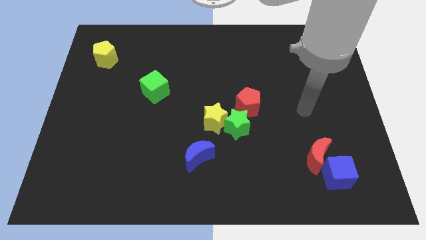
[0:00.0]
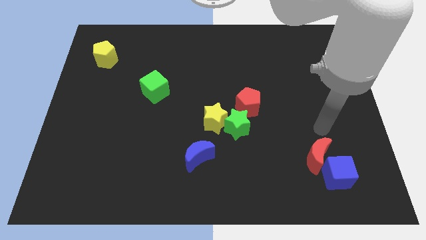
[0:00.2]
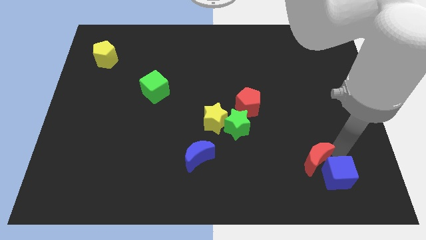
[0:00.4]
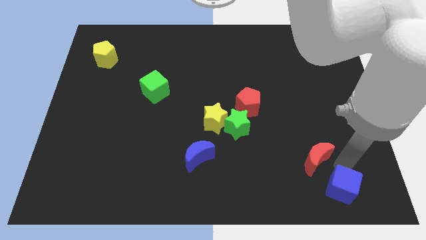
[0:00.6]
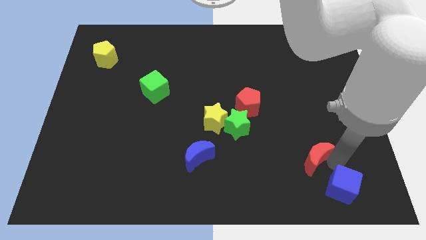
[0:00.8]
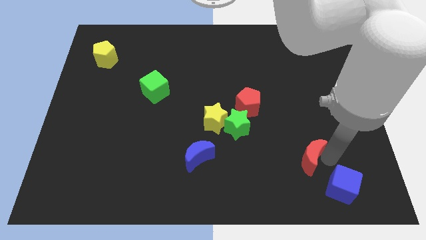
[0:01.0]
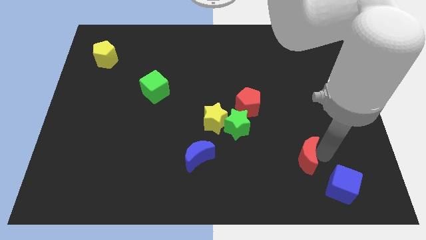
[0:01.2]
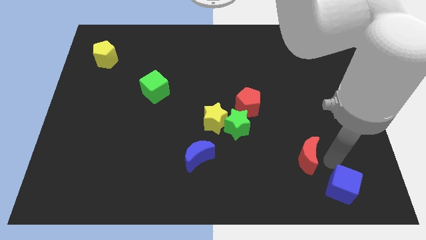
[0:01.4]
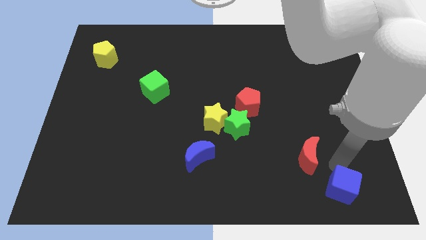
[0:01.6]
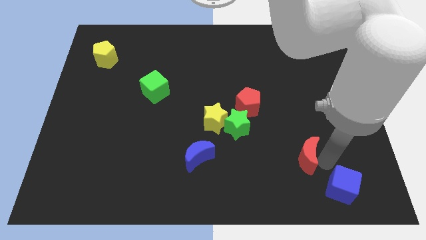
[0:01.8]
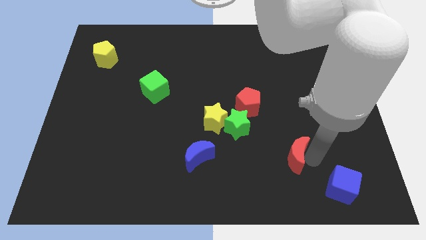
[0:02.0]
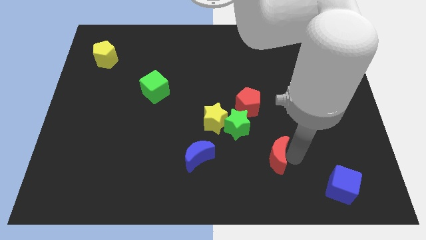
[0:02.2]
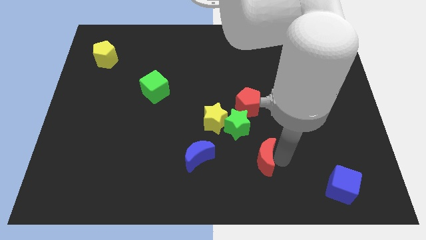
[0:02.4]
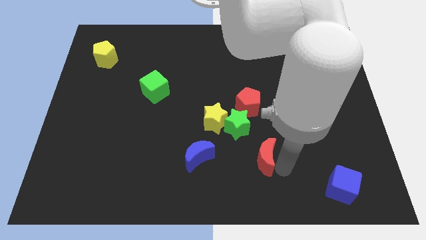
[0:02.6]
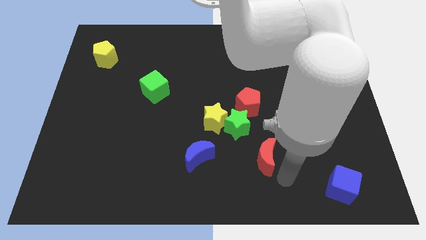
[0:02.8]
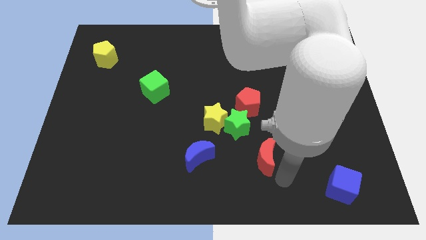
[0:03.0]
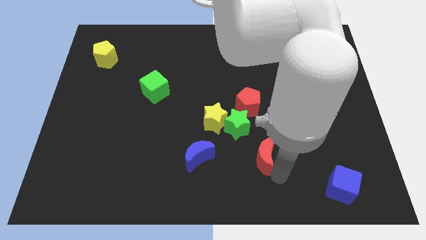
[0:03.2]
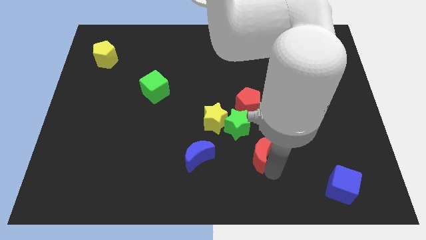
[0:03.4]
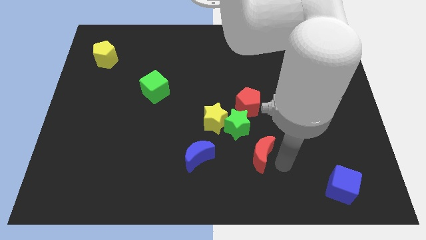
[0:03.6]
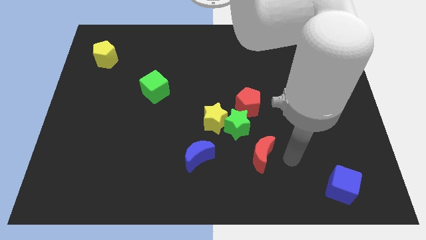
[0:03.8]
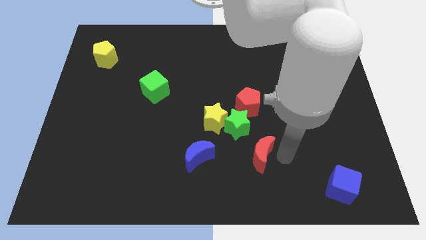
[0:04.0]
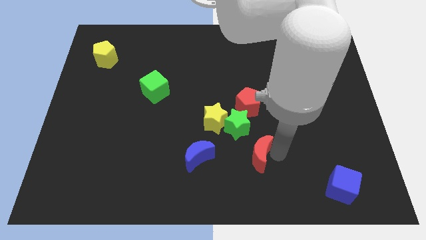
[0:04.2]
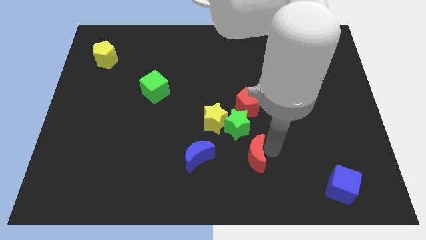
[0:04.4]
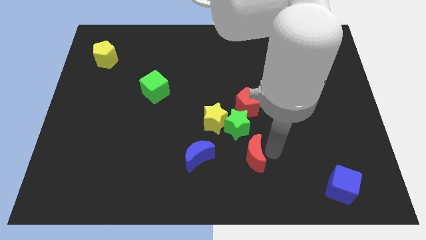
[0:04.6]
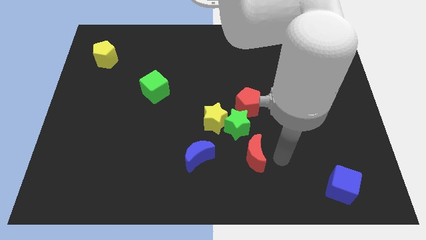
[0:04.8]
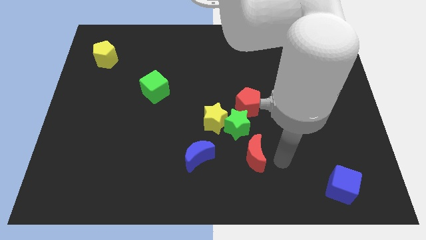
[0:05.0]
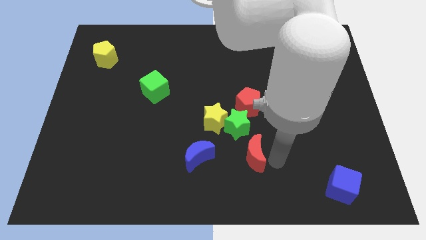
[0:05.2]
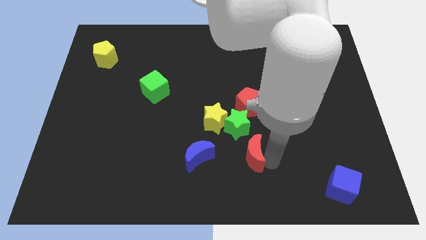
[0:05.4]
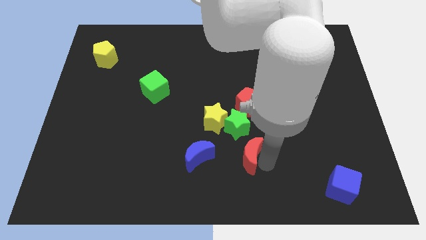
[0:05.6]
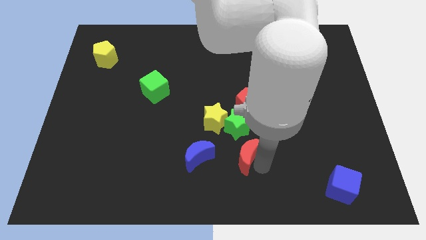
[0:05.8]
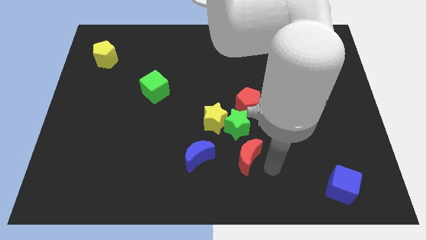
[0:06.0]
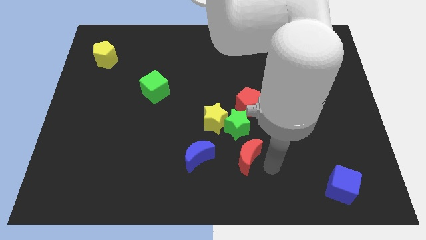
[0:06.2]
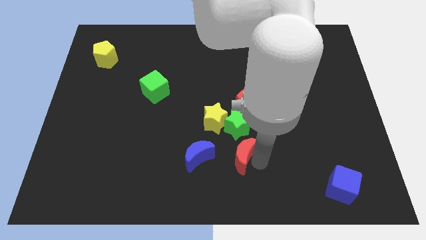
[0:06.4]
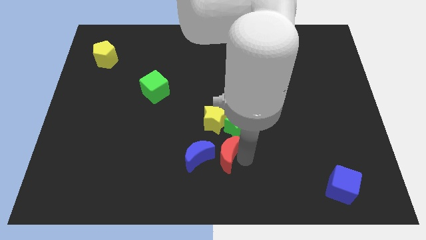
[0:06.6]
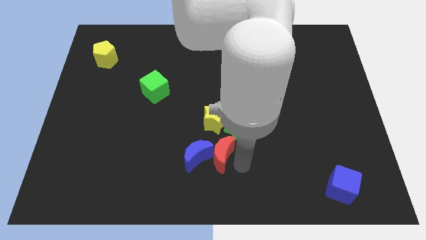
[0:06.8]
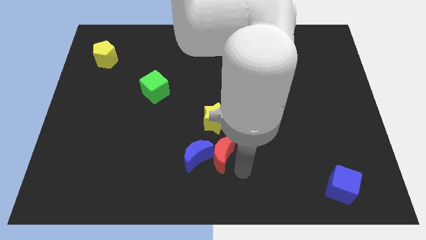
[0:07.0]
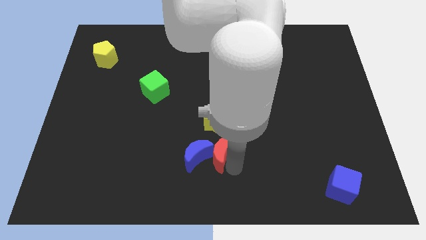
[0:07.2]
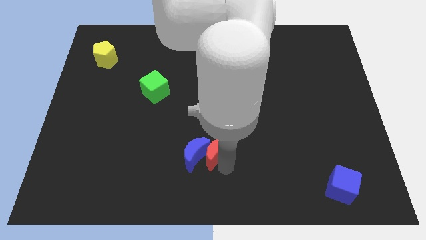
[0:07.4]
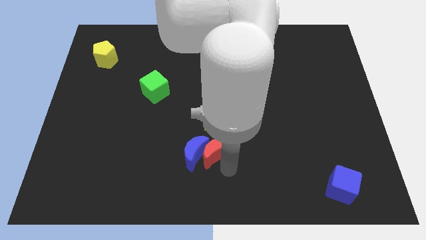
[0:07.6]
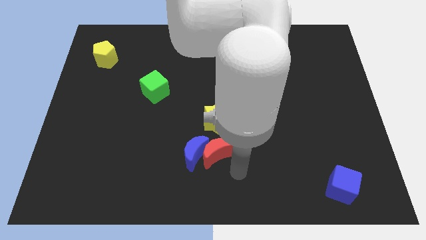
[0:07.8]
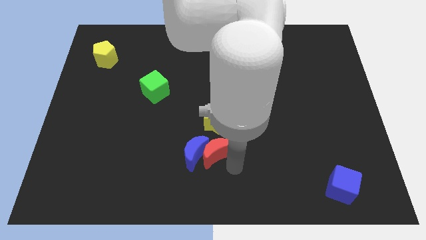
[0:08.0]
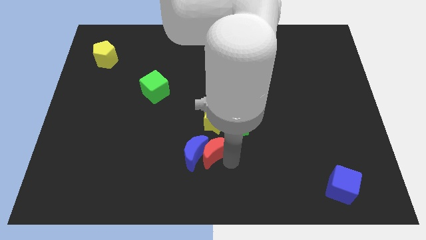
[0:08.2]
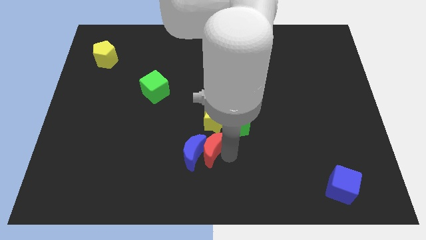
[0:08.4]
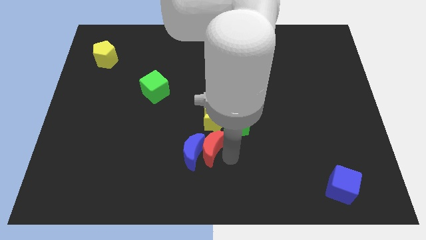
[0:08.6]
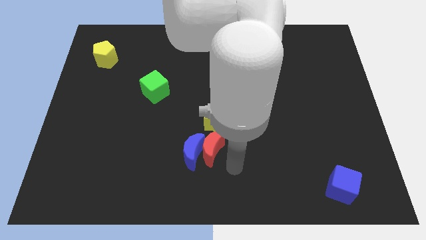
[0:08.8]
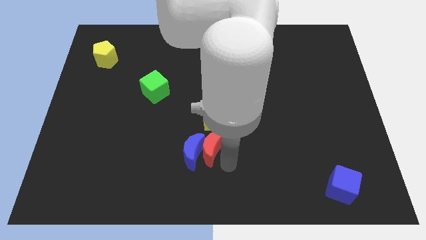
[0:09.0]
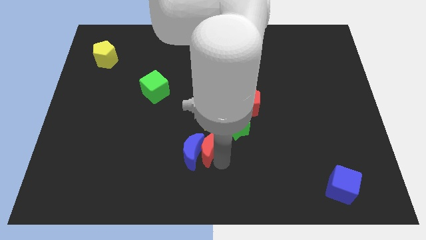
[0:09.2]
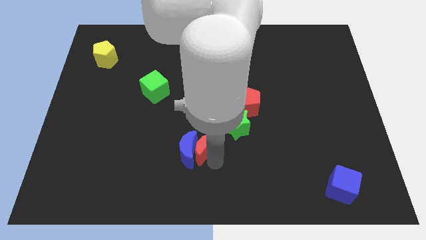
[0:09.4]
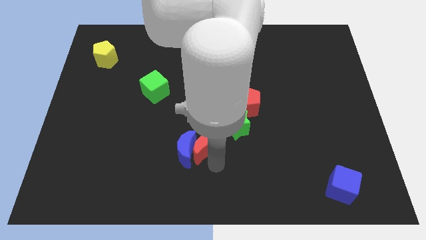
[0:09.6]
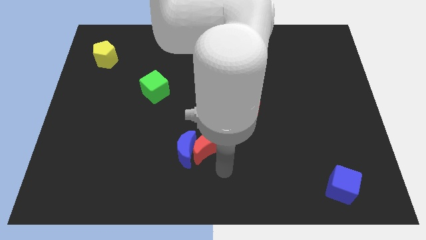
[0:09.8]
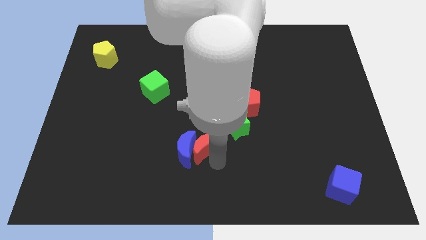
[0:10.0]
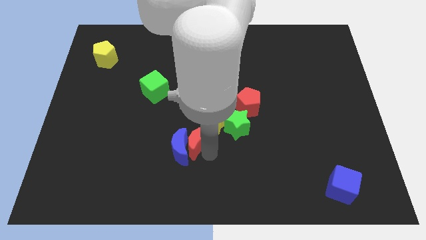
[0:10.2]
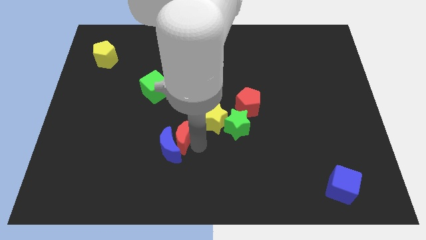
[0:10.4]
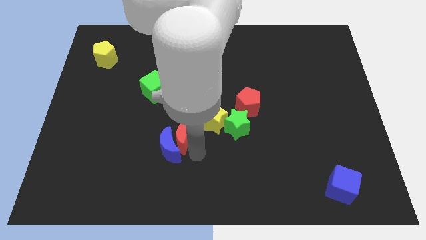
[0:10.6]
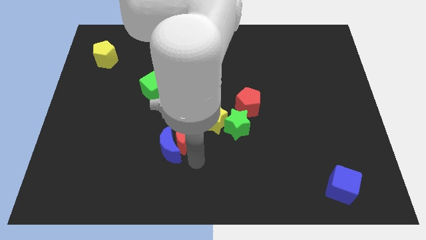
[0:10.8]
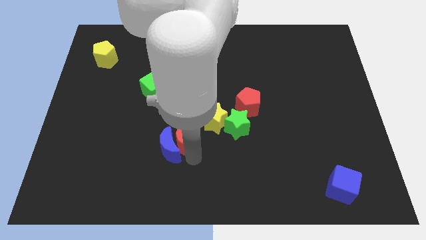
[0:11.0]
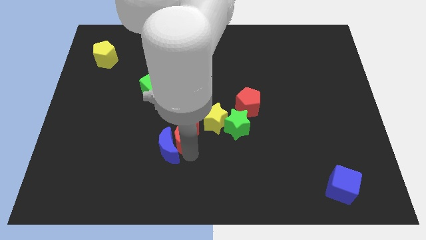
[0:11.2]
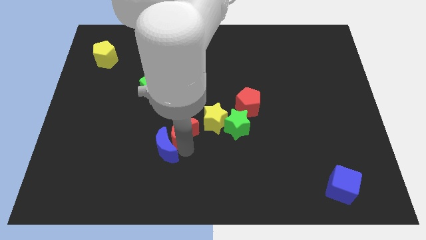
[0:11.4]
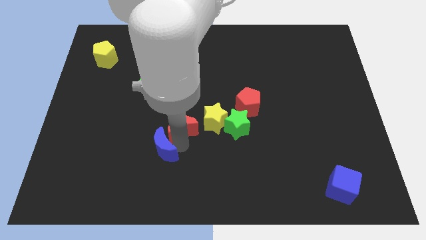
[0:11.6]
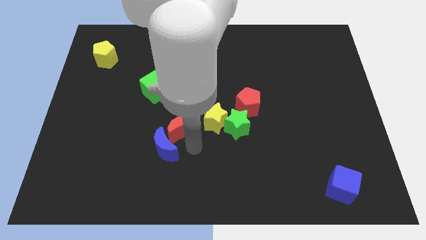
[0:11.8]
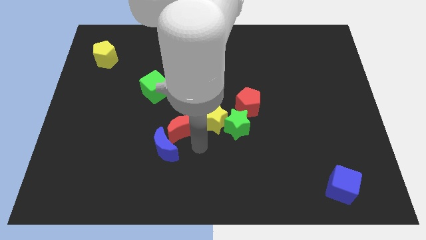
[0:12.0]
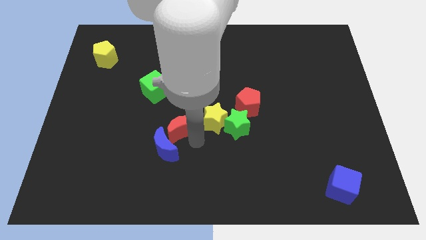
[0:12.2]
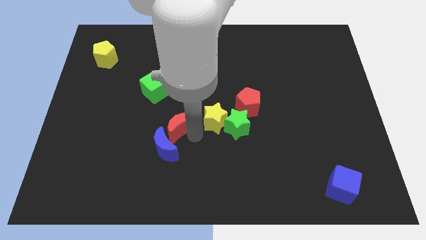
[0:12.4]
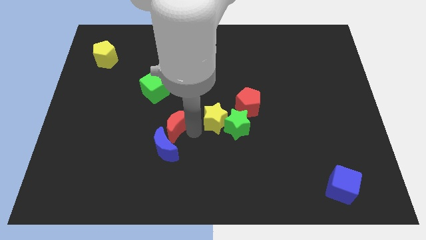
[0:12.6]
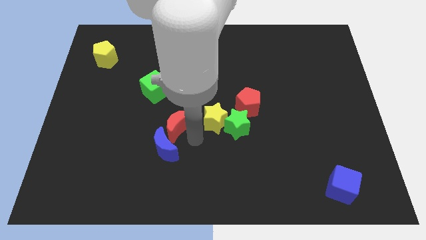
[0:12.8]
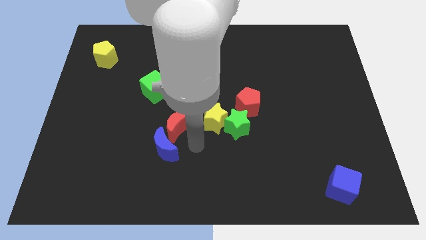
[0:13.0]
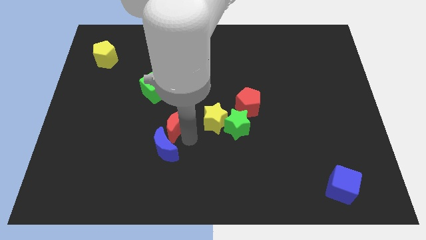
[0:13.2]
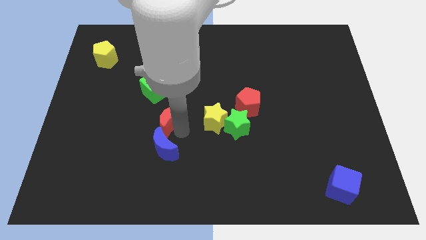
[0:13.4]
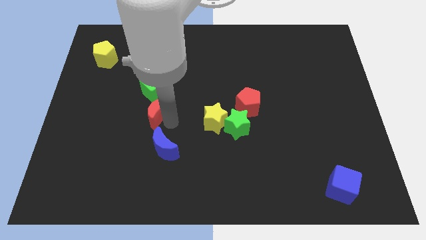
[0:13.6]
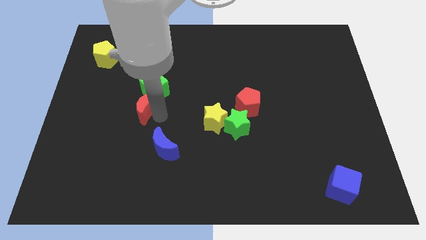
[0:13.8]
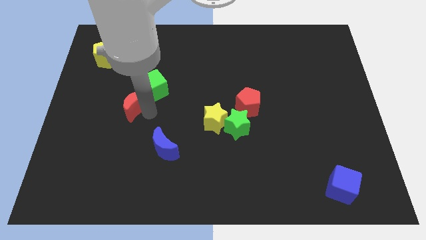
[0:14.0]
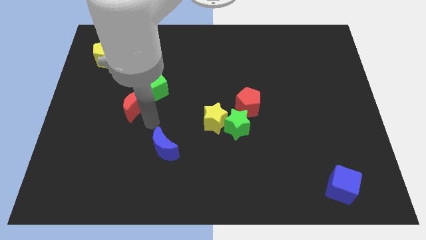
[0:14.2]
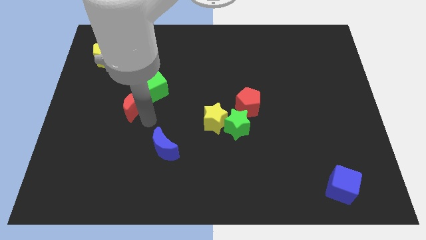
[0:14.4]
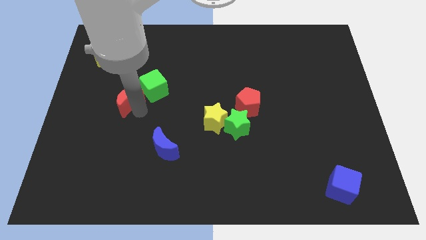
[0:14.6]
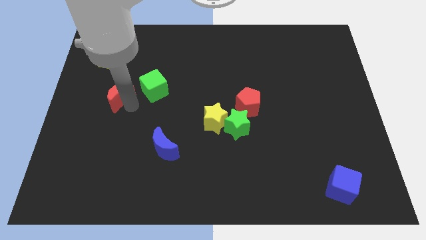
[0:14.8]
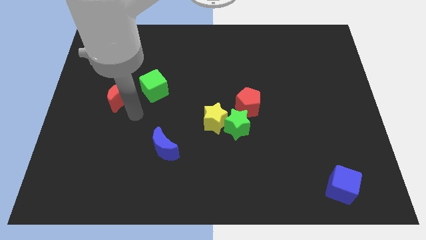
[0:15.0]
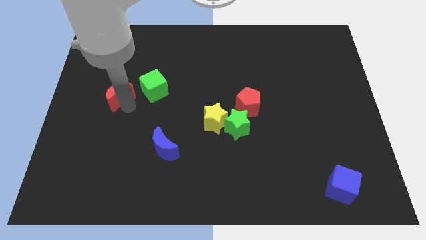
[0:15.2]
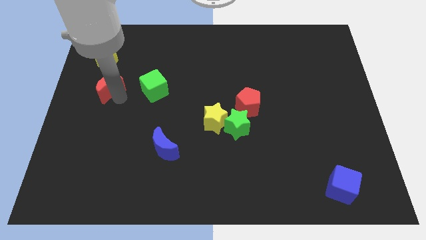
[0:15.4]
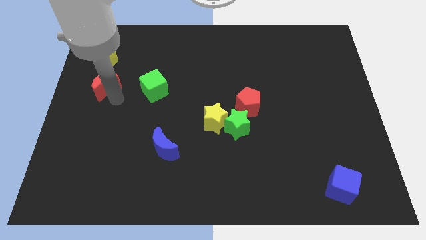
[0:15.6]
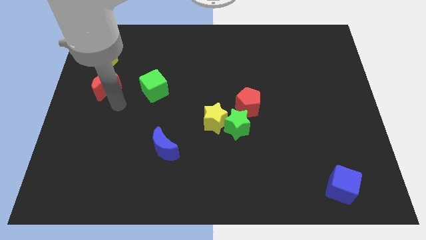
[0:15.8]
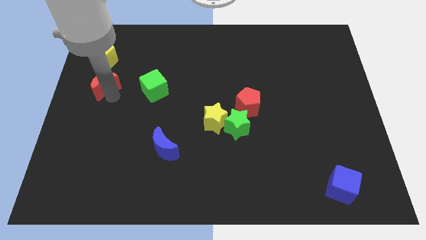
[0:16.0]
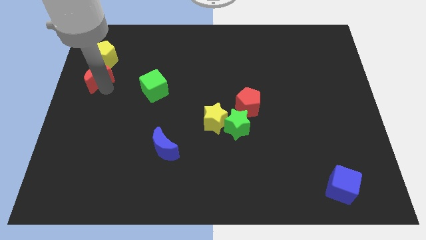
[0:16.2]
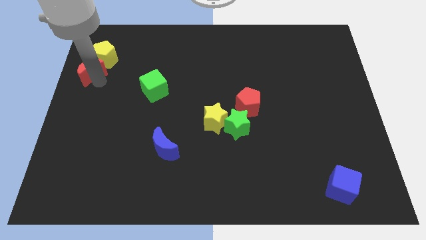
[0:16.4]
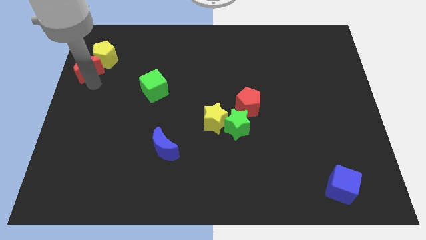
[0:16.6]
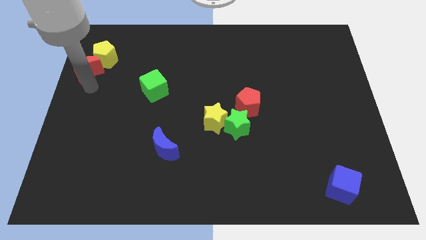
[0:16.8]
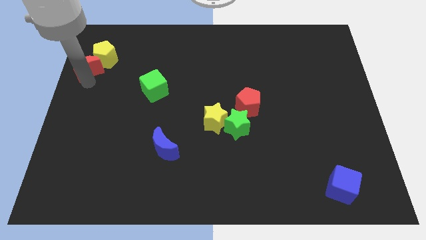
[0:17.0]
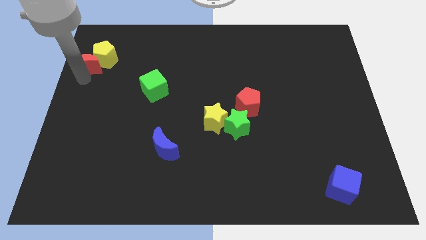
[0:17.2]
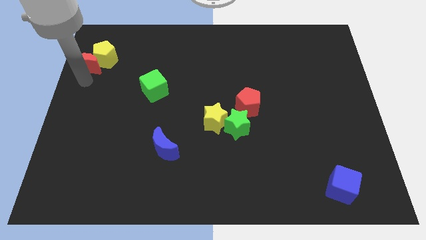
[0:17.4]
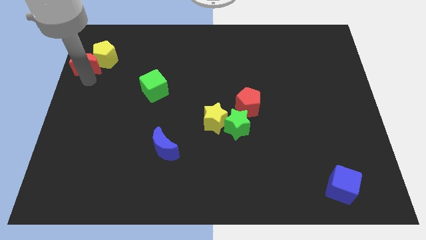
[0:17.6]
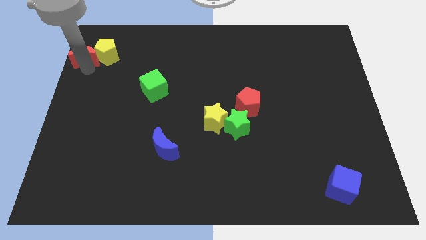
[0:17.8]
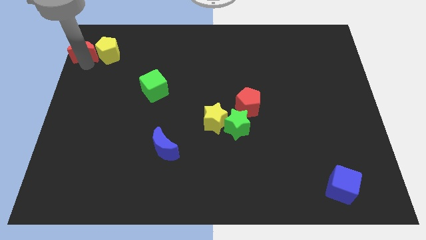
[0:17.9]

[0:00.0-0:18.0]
put the red moon to the upper left corner
